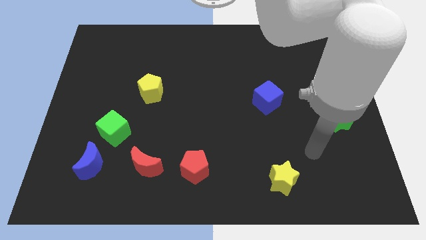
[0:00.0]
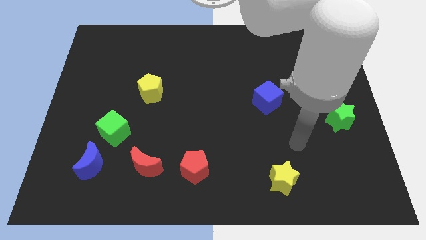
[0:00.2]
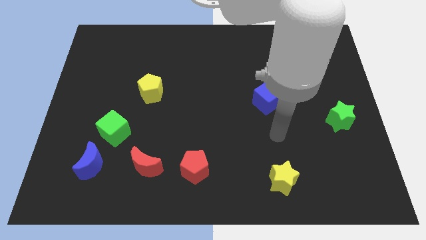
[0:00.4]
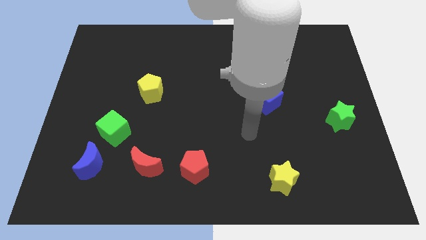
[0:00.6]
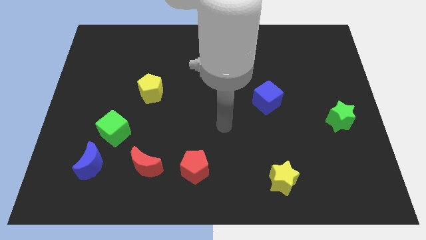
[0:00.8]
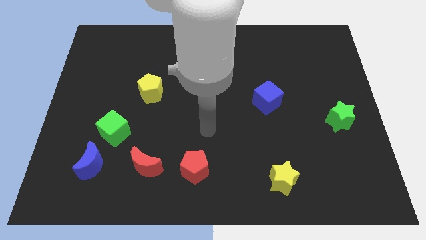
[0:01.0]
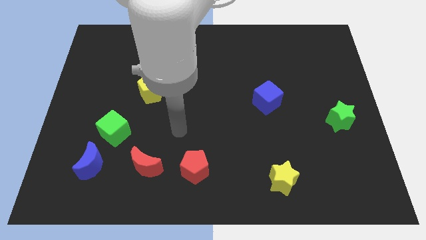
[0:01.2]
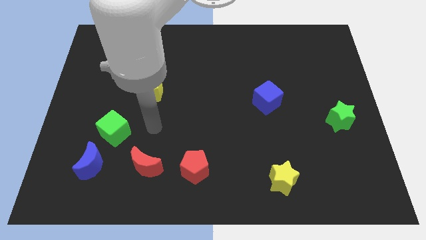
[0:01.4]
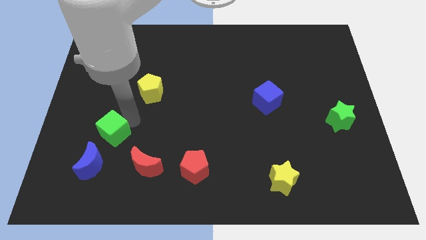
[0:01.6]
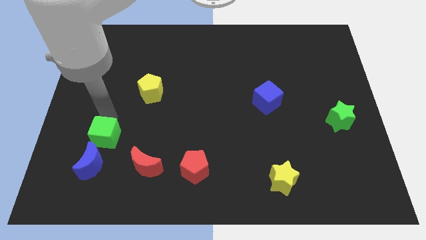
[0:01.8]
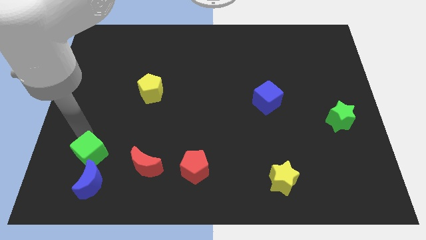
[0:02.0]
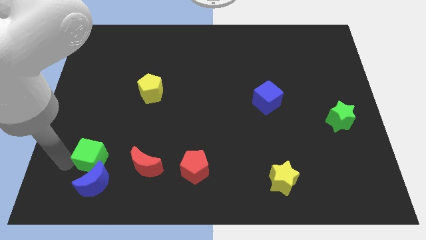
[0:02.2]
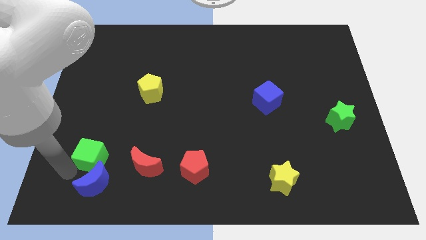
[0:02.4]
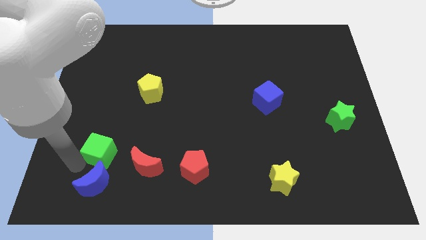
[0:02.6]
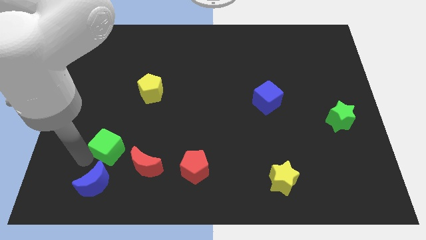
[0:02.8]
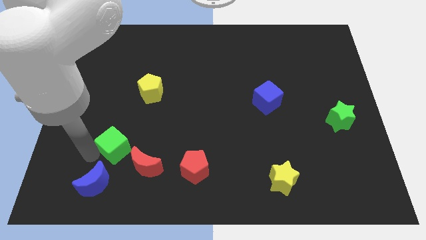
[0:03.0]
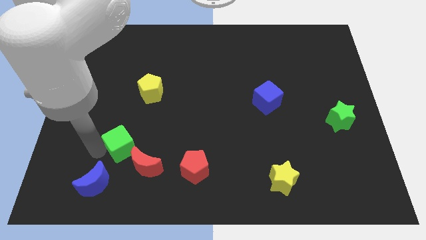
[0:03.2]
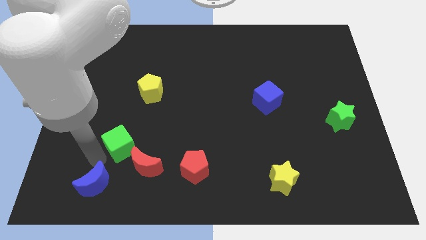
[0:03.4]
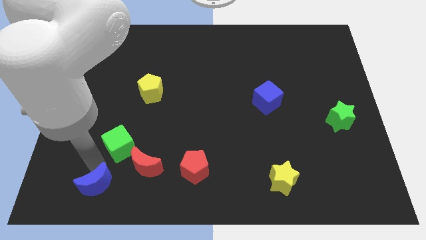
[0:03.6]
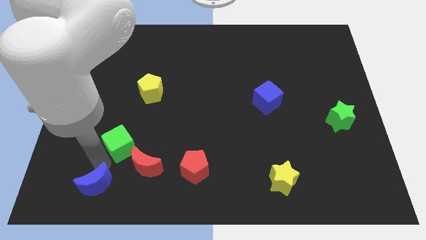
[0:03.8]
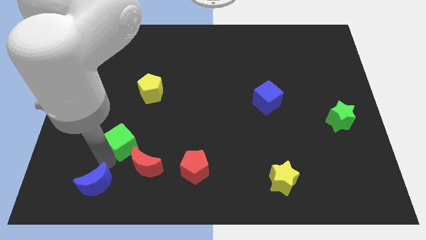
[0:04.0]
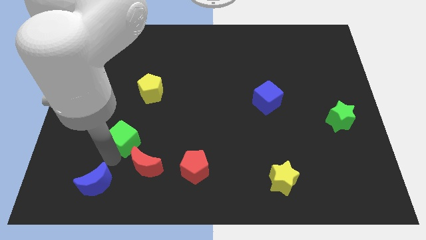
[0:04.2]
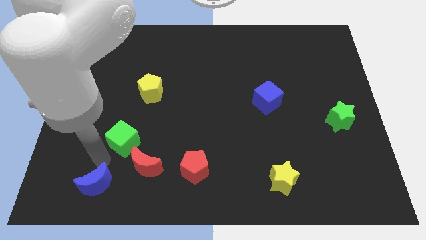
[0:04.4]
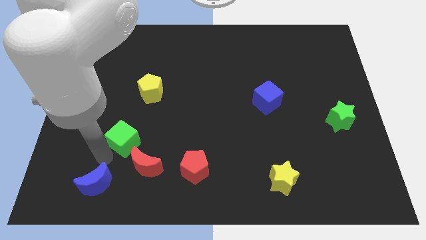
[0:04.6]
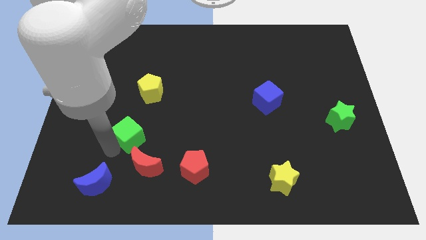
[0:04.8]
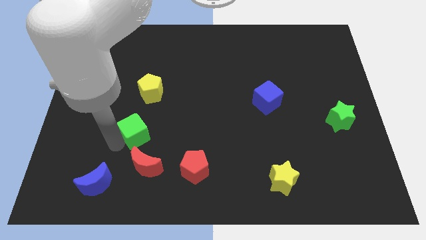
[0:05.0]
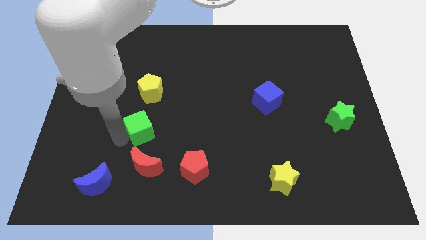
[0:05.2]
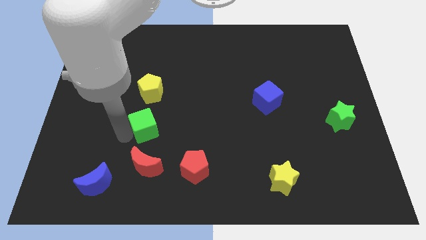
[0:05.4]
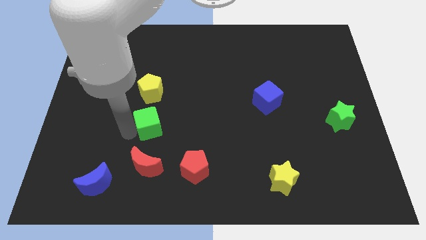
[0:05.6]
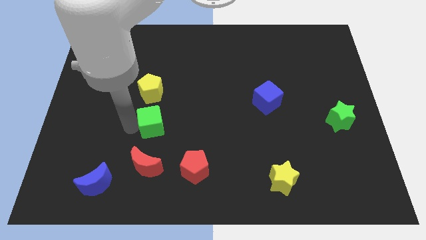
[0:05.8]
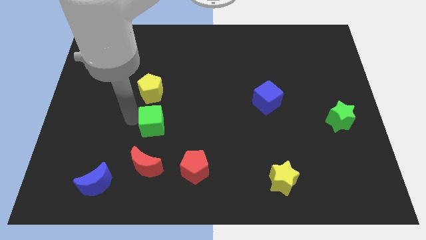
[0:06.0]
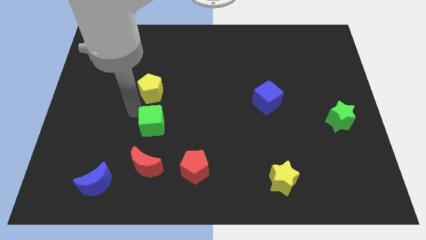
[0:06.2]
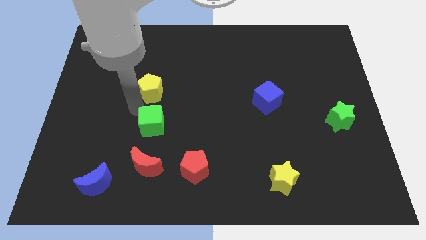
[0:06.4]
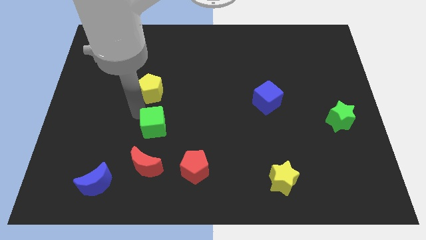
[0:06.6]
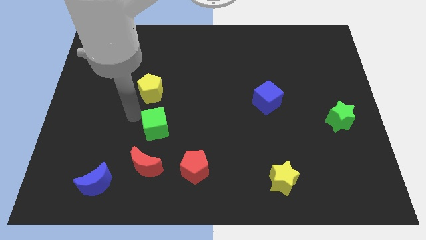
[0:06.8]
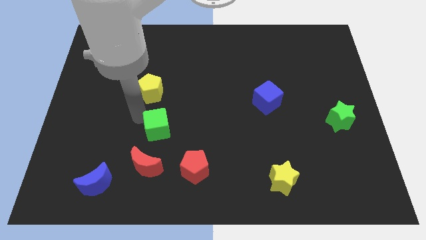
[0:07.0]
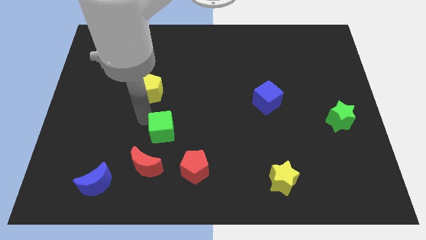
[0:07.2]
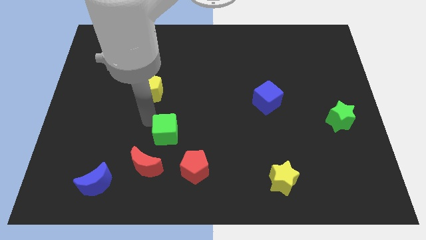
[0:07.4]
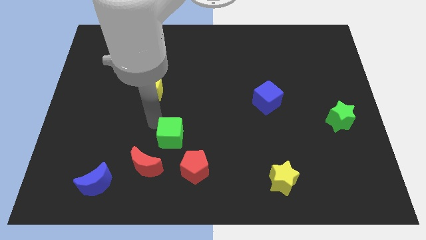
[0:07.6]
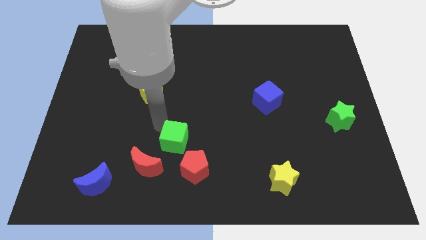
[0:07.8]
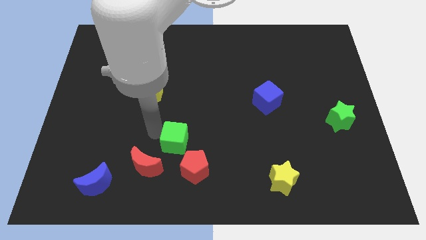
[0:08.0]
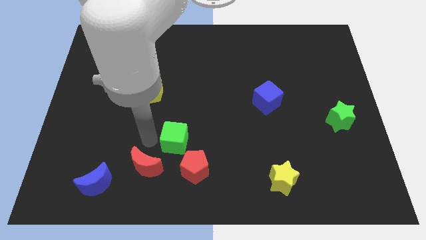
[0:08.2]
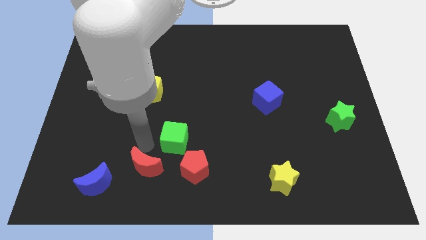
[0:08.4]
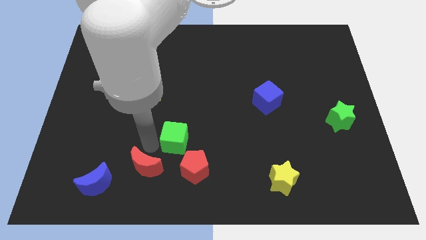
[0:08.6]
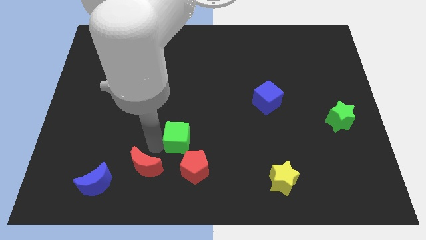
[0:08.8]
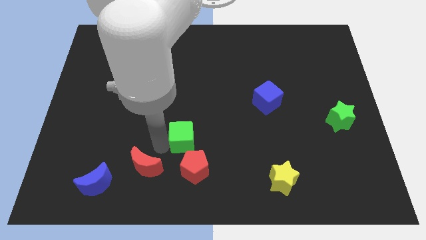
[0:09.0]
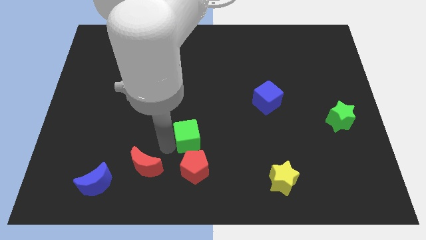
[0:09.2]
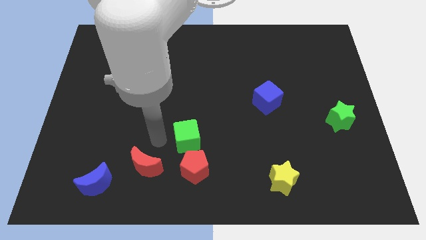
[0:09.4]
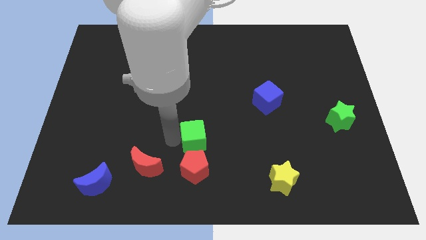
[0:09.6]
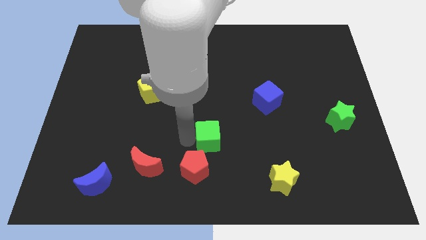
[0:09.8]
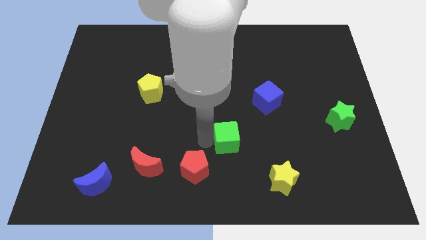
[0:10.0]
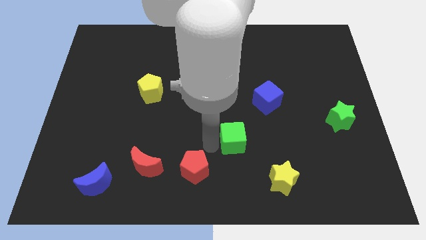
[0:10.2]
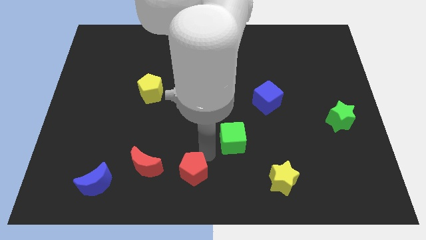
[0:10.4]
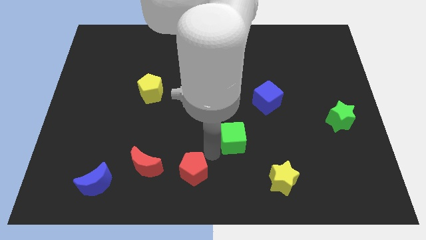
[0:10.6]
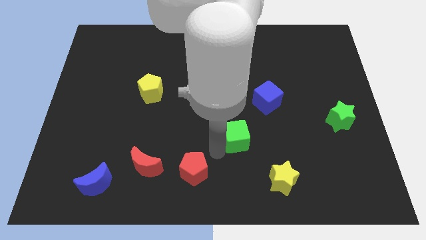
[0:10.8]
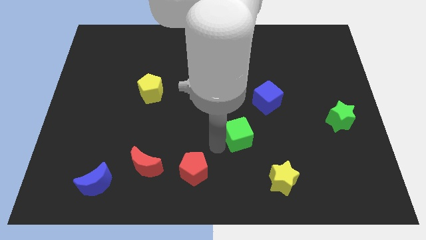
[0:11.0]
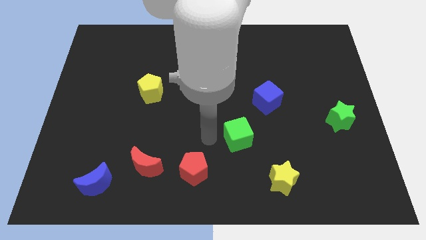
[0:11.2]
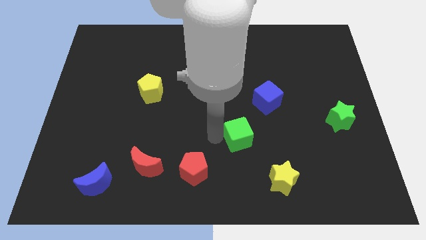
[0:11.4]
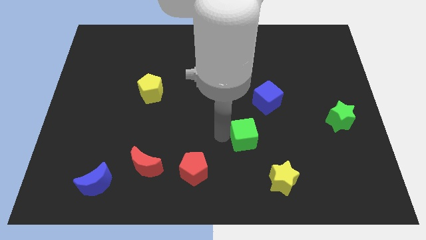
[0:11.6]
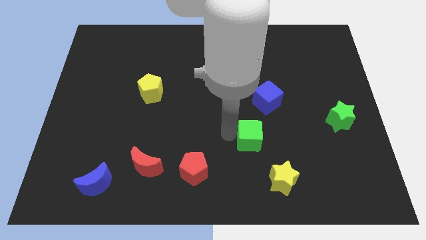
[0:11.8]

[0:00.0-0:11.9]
put the green cube below the blue cube

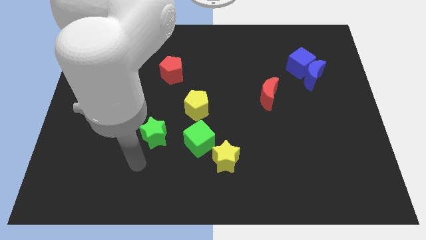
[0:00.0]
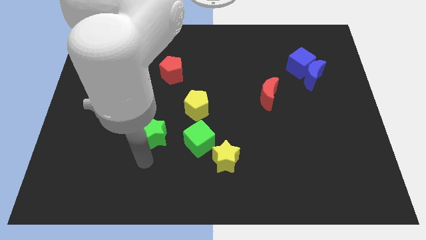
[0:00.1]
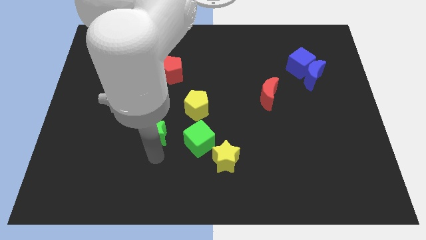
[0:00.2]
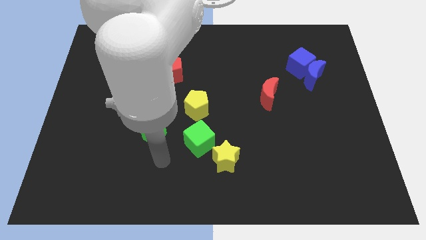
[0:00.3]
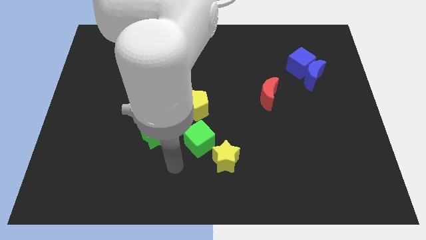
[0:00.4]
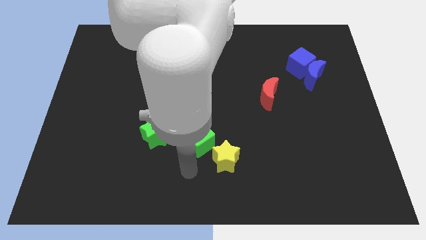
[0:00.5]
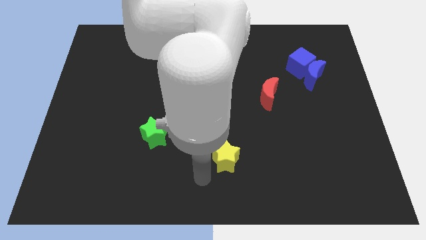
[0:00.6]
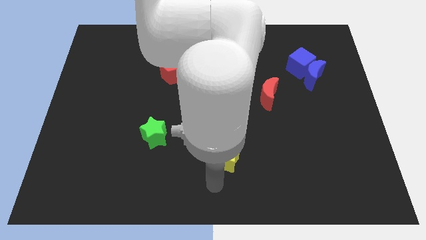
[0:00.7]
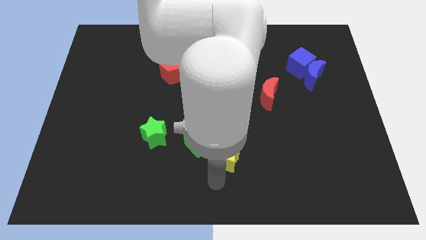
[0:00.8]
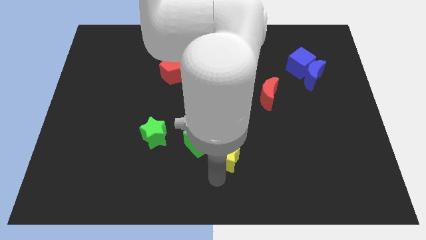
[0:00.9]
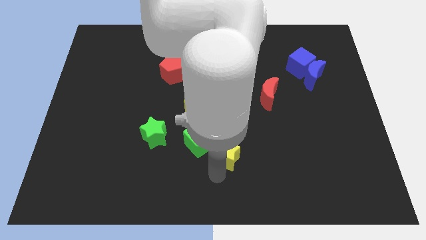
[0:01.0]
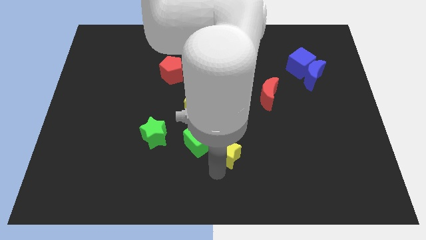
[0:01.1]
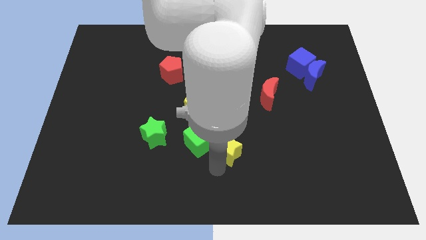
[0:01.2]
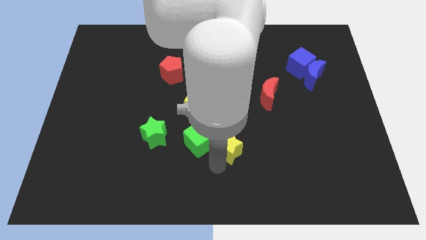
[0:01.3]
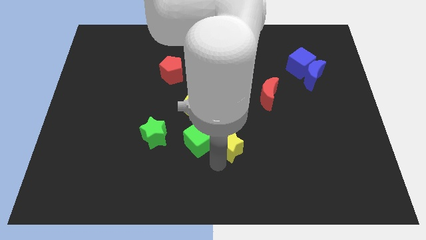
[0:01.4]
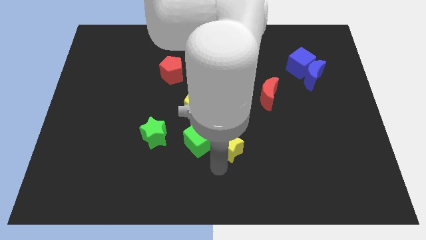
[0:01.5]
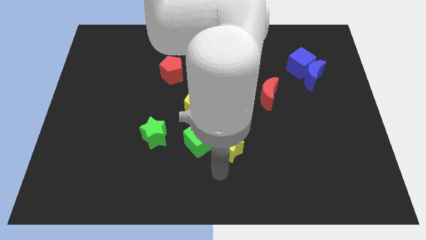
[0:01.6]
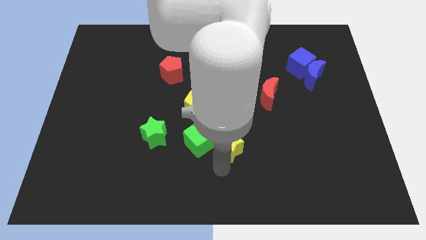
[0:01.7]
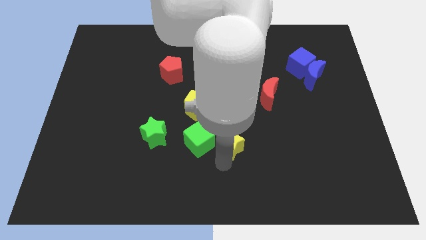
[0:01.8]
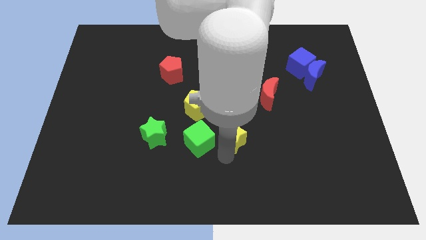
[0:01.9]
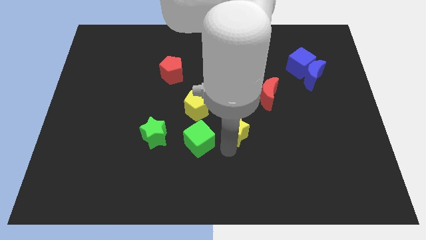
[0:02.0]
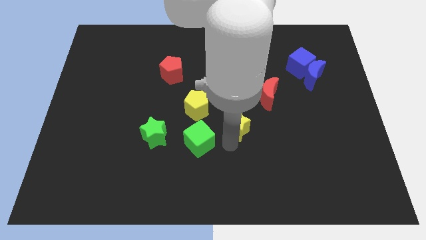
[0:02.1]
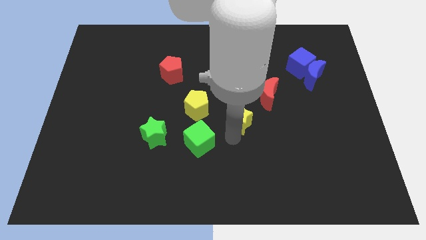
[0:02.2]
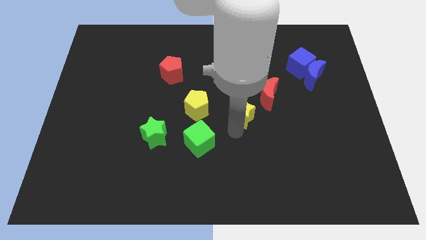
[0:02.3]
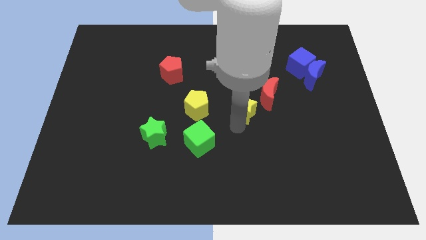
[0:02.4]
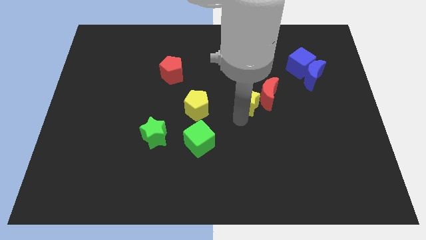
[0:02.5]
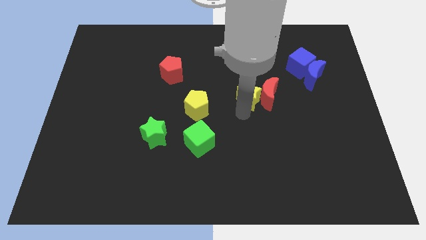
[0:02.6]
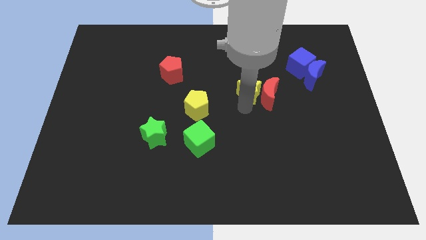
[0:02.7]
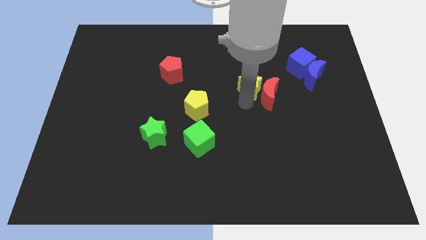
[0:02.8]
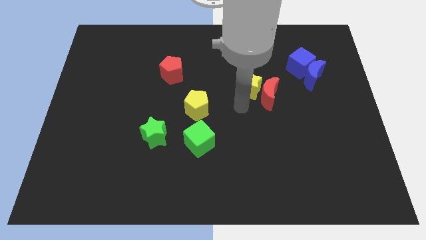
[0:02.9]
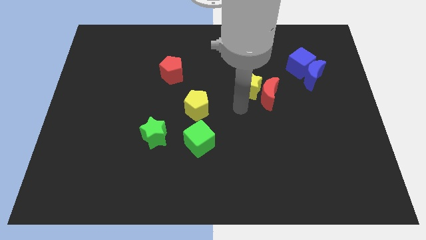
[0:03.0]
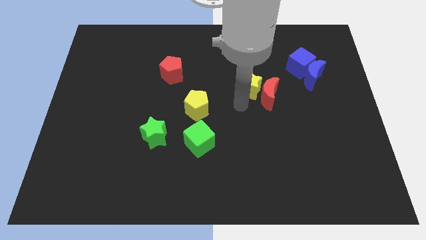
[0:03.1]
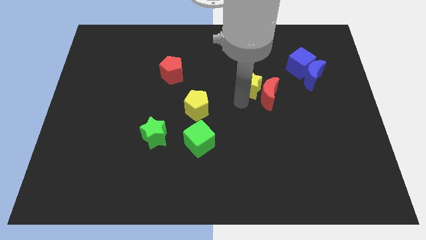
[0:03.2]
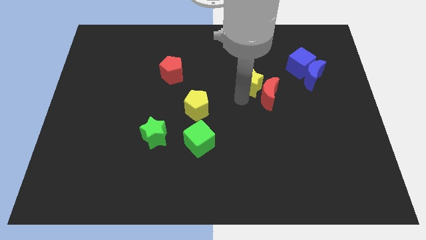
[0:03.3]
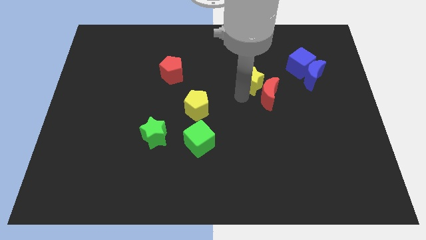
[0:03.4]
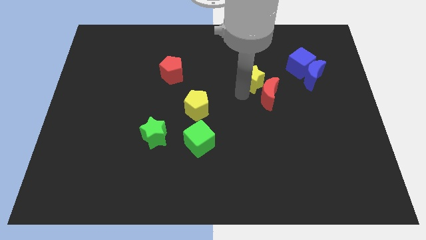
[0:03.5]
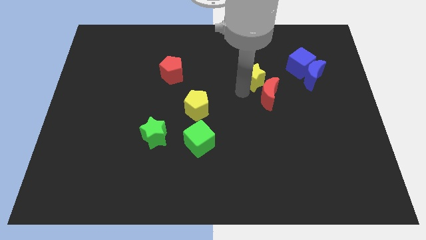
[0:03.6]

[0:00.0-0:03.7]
slide the yellow star just left of the blue cube
